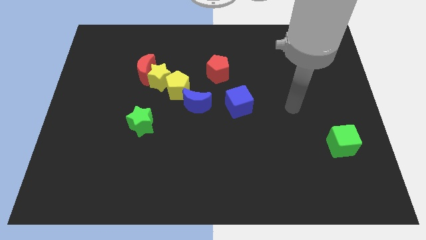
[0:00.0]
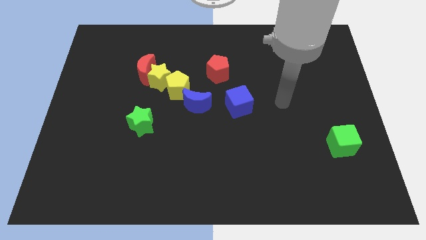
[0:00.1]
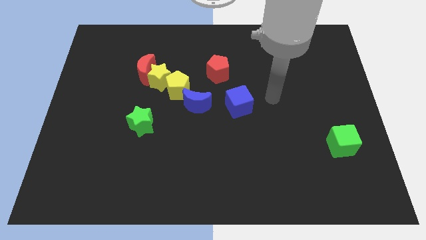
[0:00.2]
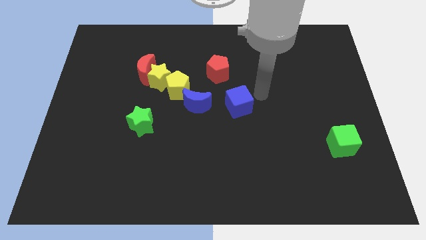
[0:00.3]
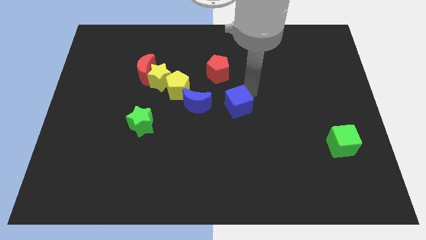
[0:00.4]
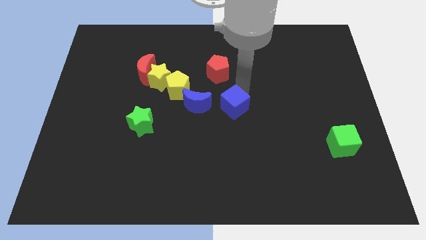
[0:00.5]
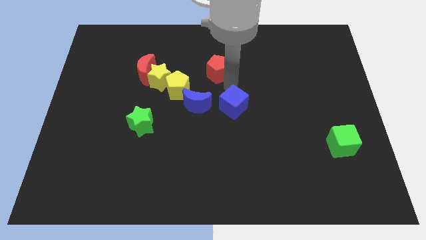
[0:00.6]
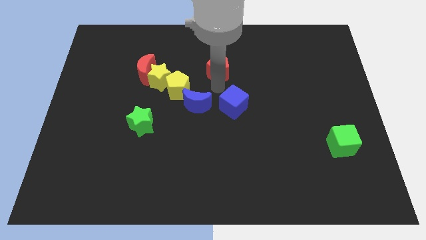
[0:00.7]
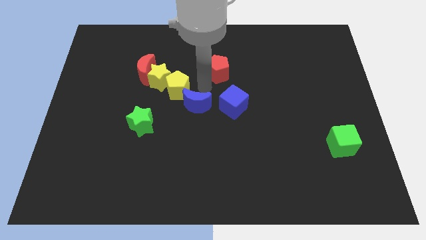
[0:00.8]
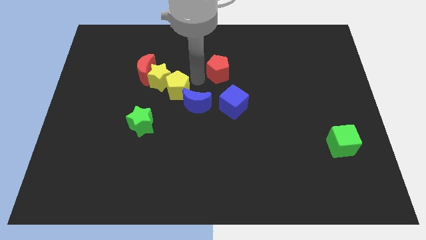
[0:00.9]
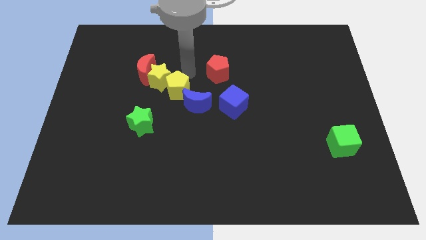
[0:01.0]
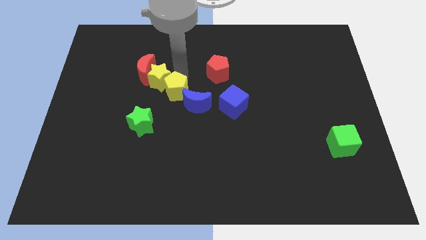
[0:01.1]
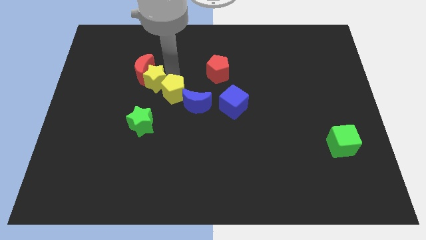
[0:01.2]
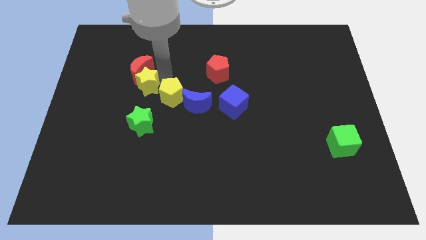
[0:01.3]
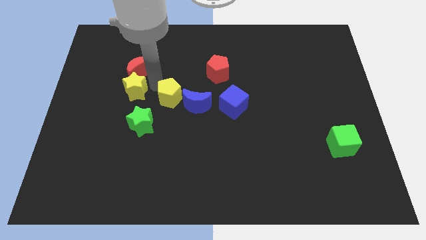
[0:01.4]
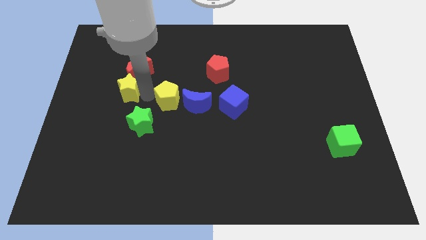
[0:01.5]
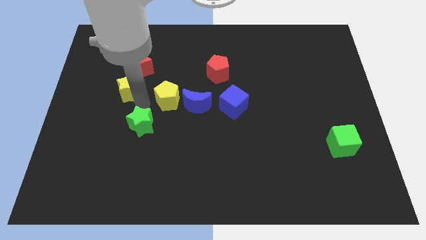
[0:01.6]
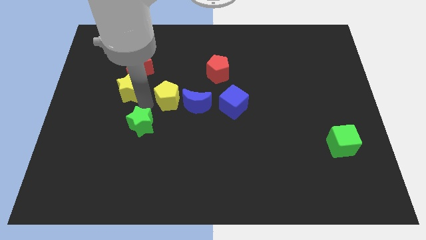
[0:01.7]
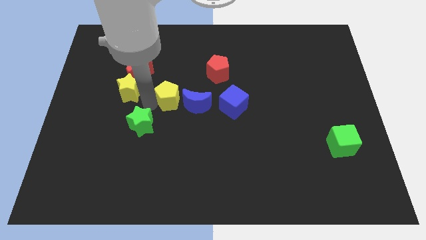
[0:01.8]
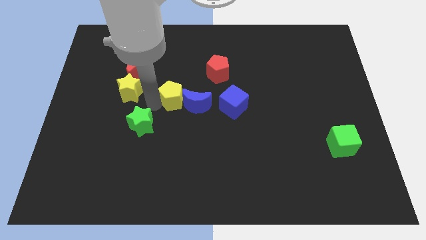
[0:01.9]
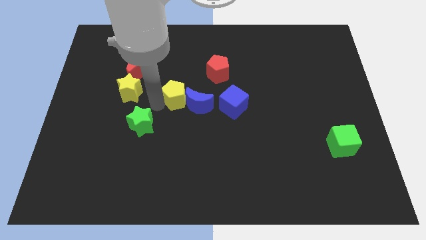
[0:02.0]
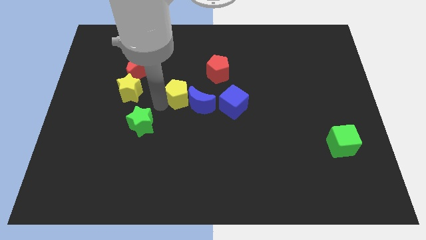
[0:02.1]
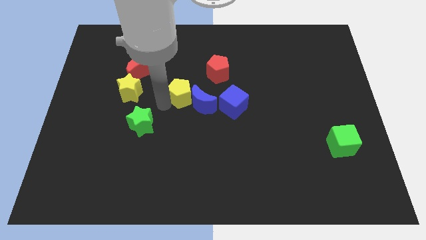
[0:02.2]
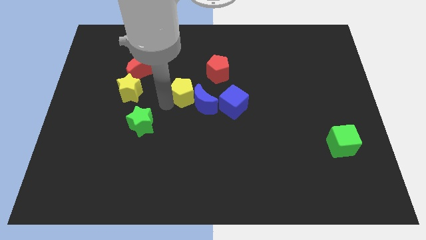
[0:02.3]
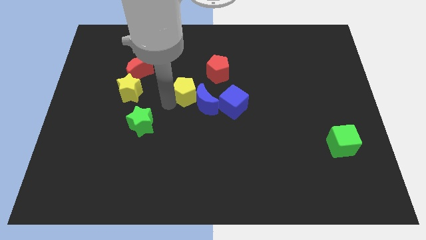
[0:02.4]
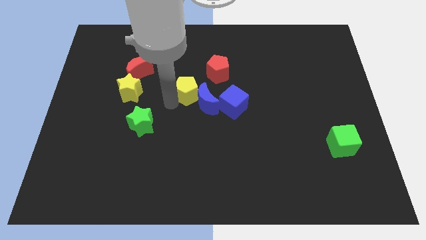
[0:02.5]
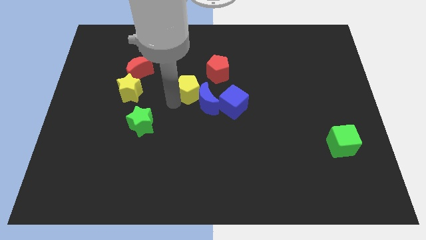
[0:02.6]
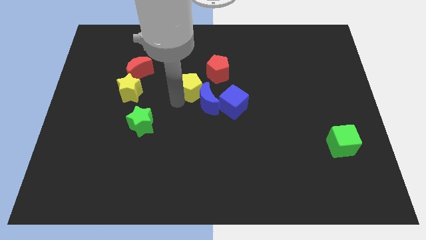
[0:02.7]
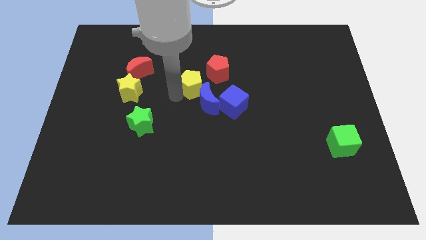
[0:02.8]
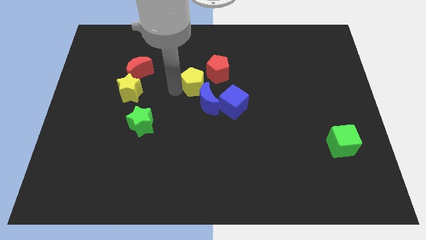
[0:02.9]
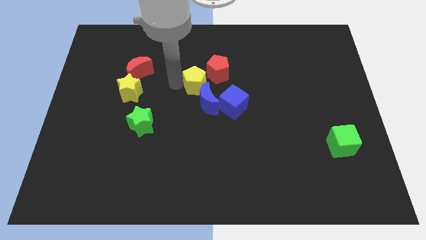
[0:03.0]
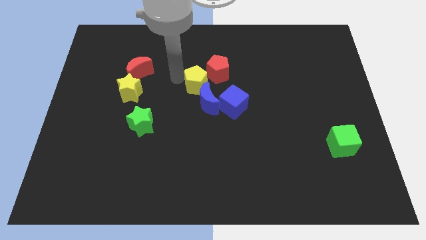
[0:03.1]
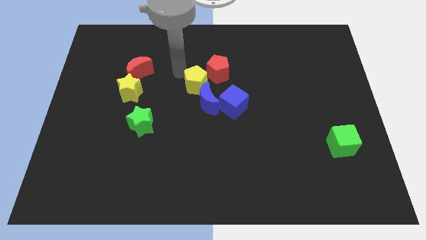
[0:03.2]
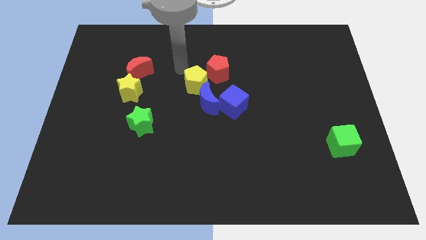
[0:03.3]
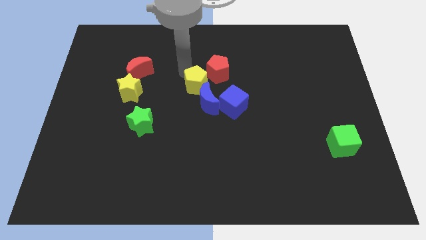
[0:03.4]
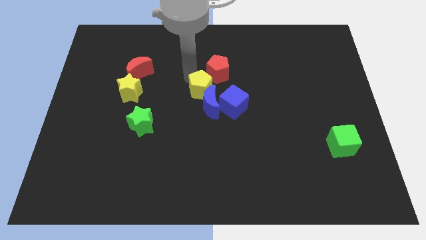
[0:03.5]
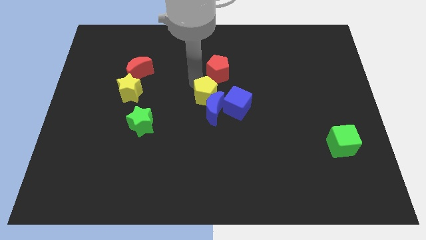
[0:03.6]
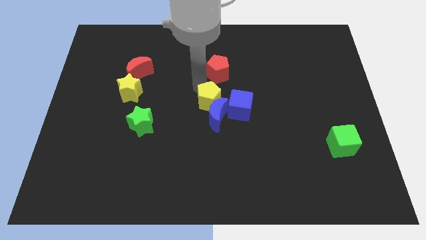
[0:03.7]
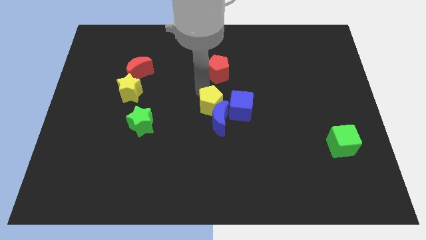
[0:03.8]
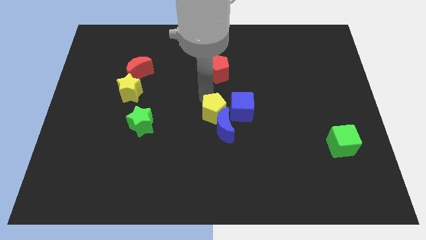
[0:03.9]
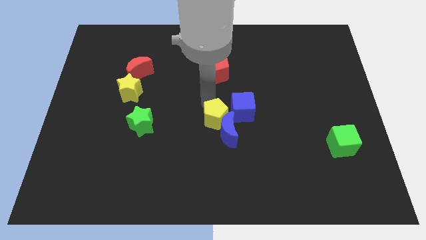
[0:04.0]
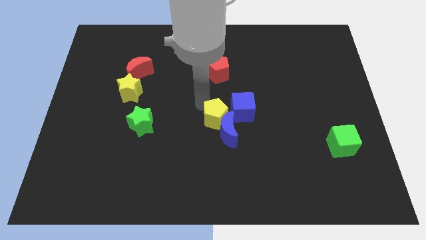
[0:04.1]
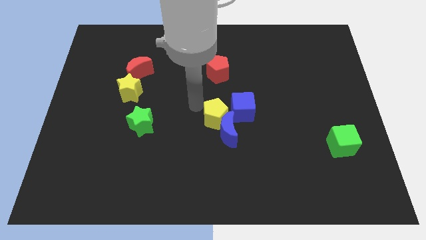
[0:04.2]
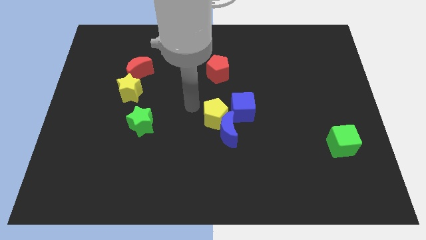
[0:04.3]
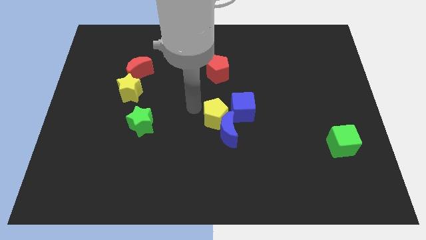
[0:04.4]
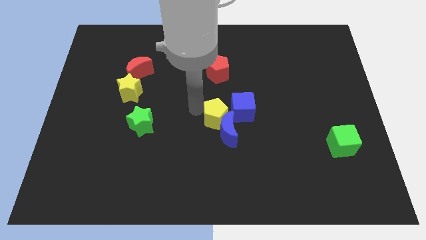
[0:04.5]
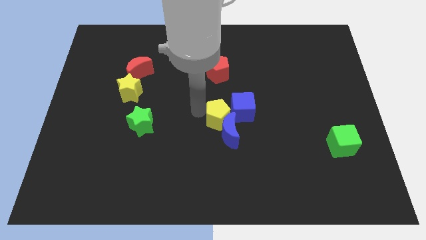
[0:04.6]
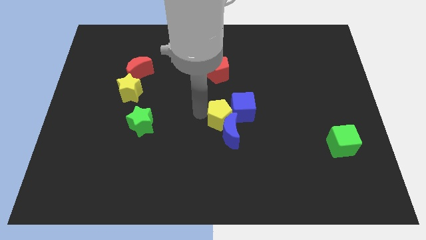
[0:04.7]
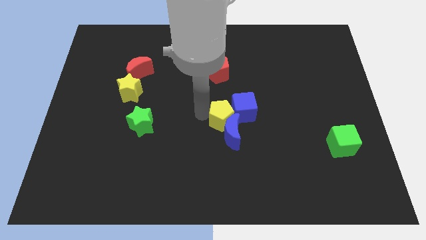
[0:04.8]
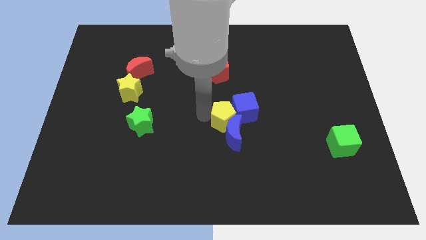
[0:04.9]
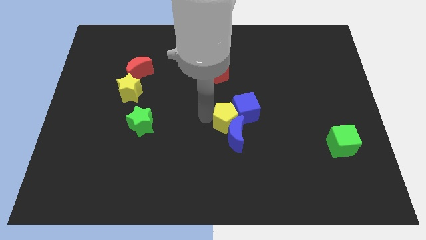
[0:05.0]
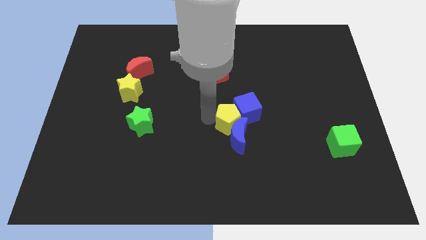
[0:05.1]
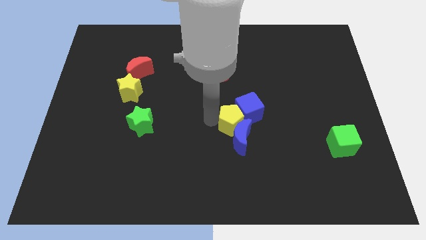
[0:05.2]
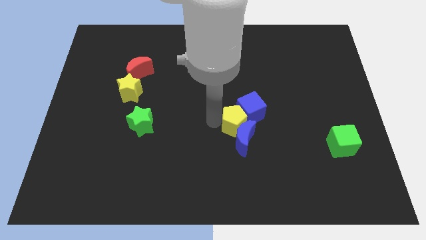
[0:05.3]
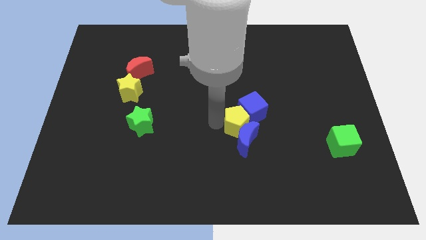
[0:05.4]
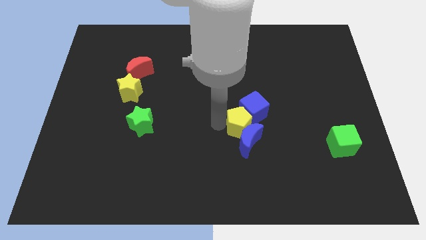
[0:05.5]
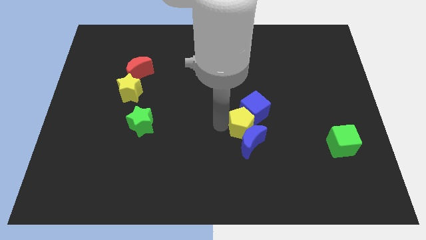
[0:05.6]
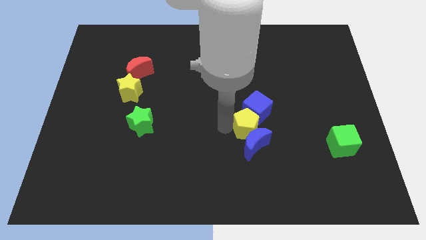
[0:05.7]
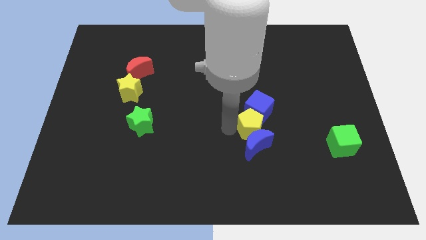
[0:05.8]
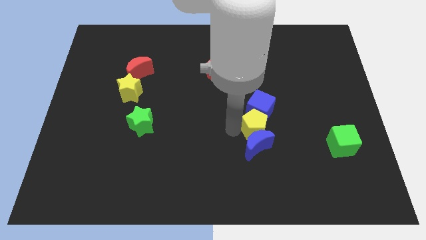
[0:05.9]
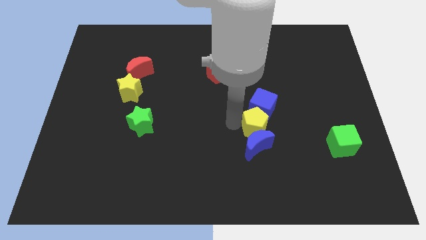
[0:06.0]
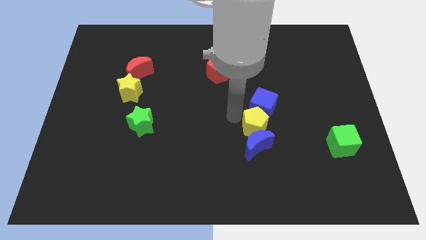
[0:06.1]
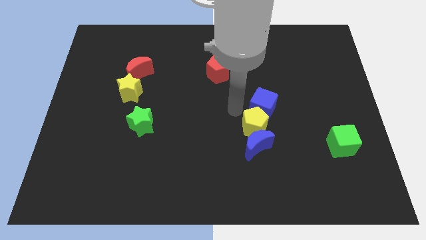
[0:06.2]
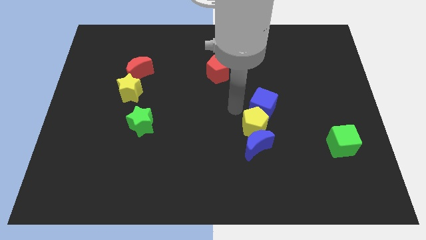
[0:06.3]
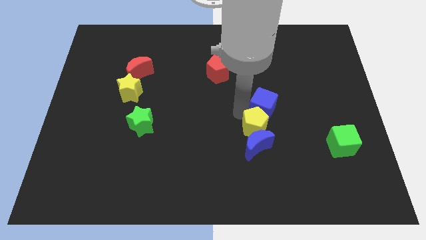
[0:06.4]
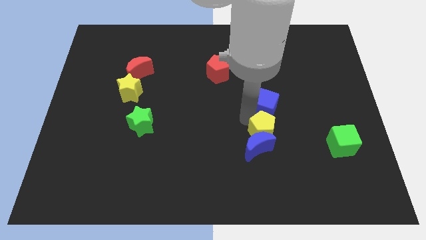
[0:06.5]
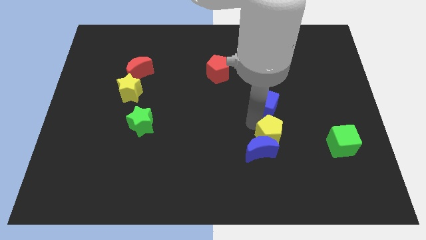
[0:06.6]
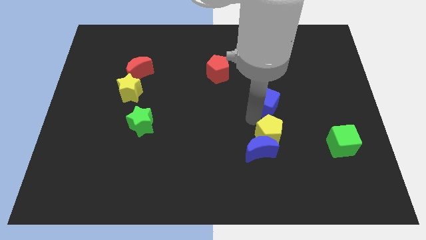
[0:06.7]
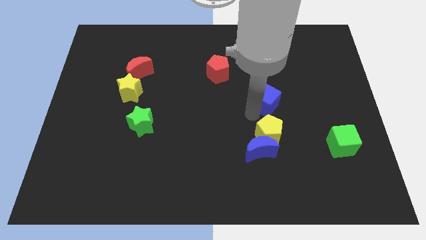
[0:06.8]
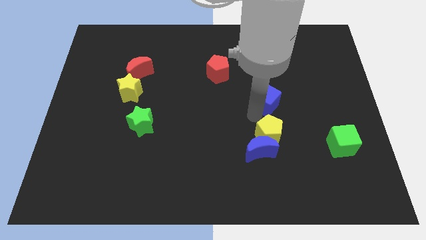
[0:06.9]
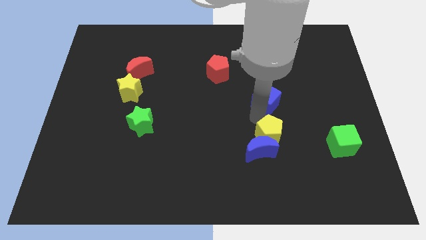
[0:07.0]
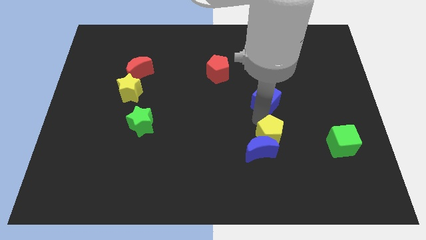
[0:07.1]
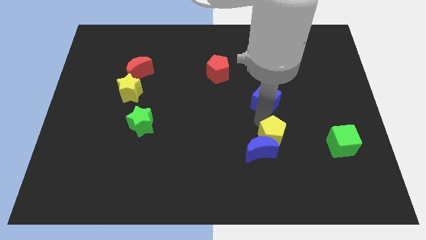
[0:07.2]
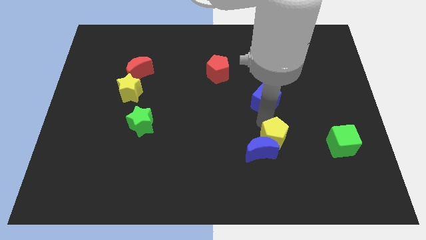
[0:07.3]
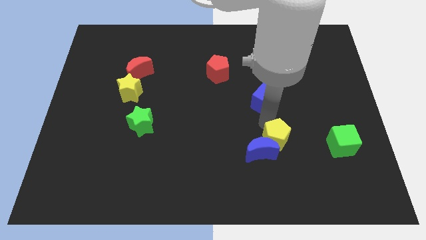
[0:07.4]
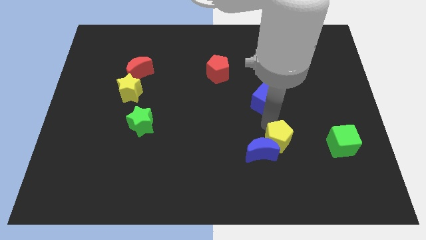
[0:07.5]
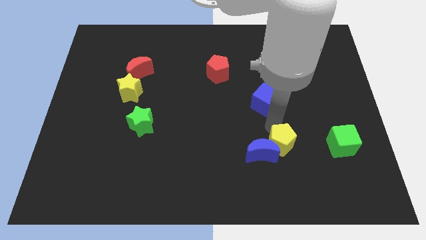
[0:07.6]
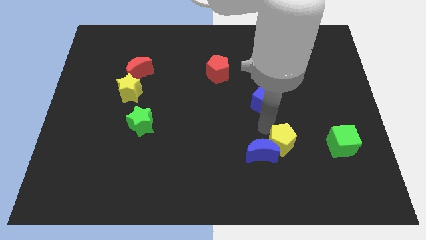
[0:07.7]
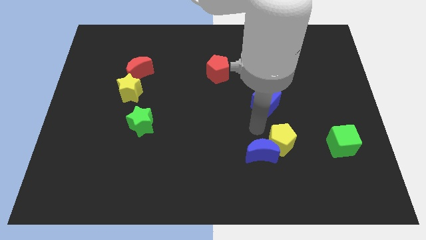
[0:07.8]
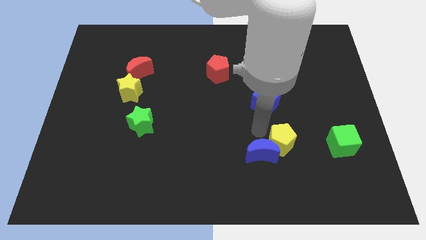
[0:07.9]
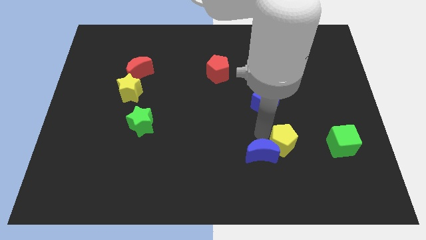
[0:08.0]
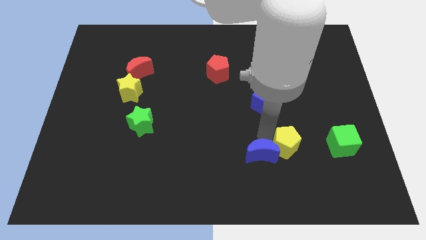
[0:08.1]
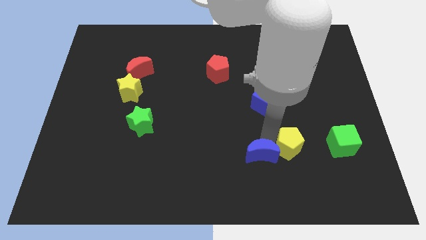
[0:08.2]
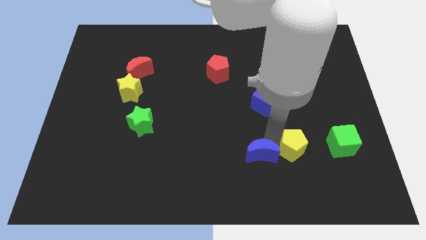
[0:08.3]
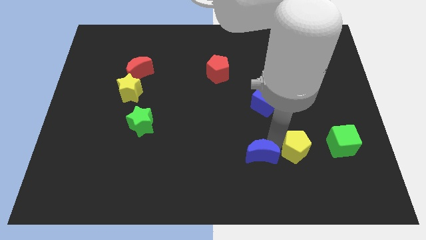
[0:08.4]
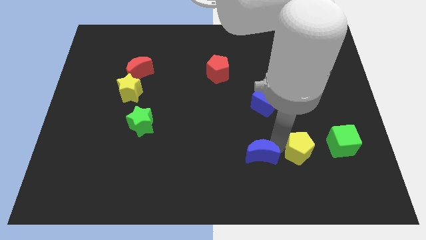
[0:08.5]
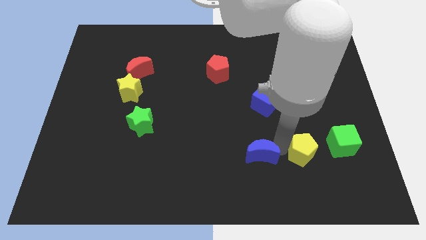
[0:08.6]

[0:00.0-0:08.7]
move the yellow pentagon diagonally down and to the left of the green cube
